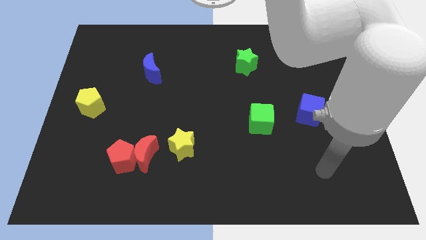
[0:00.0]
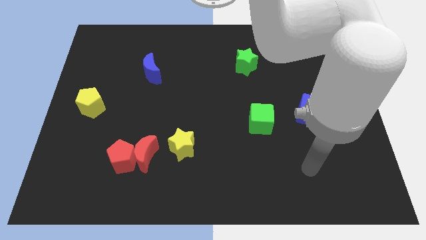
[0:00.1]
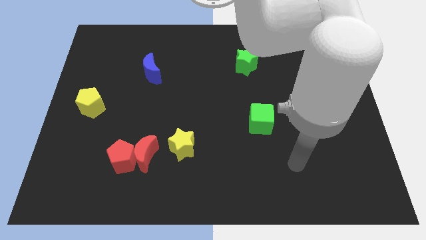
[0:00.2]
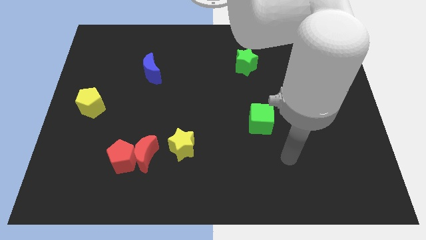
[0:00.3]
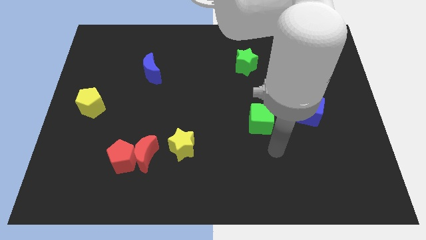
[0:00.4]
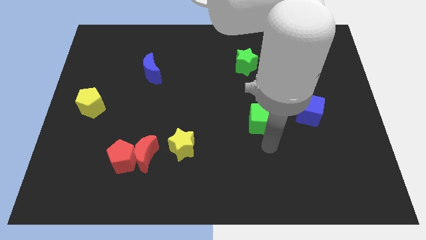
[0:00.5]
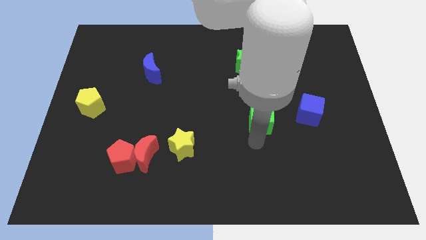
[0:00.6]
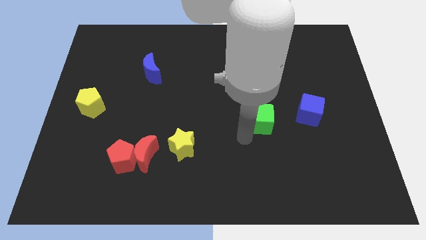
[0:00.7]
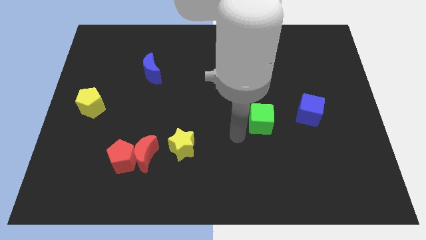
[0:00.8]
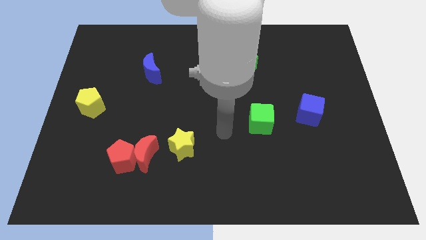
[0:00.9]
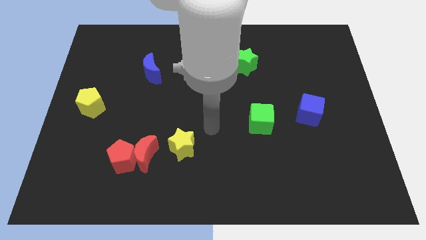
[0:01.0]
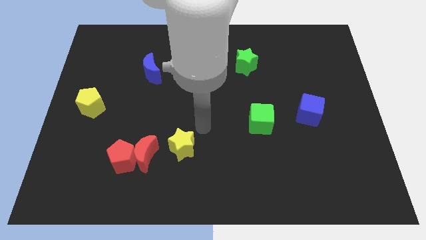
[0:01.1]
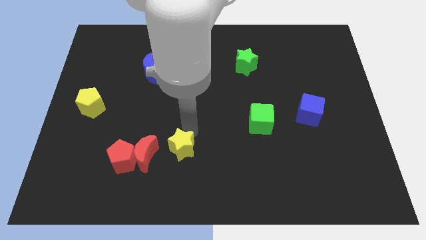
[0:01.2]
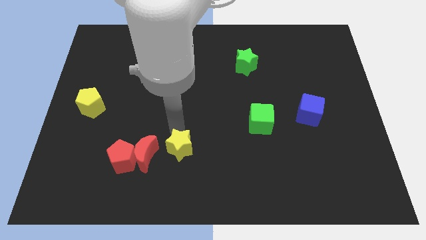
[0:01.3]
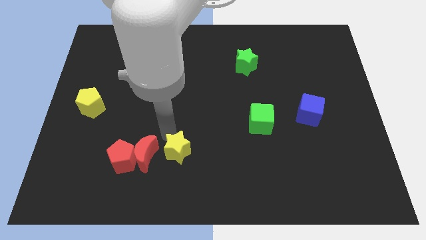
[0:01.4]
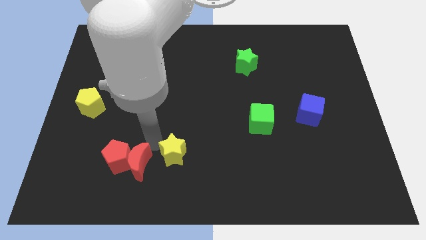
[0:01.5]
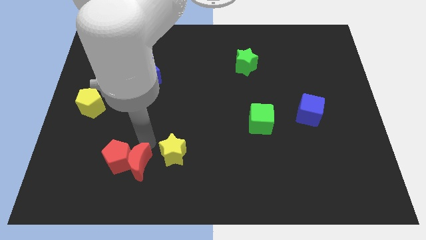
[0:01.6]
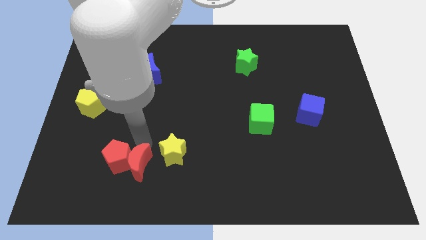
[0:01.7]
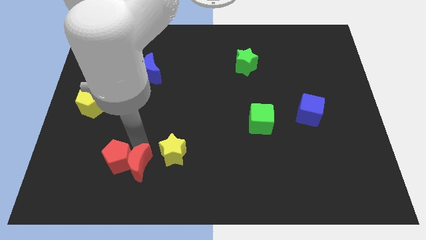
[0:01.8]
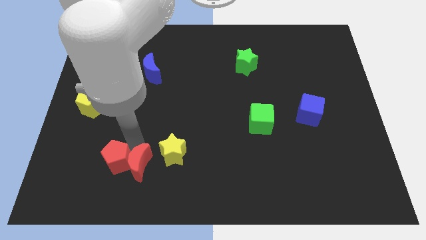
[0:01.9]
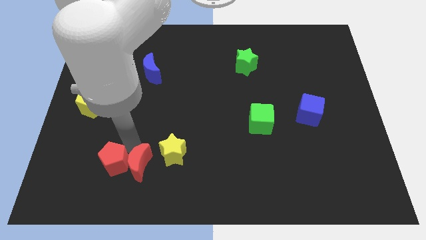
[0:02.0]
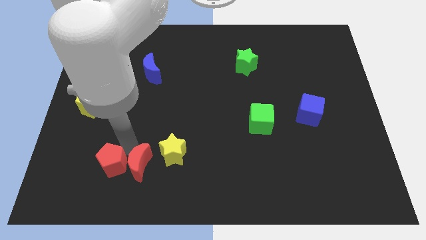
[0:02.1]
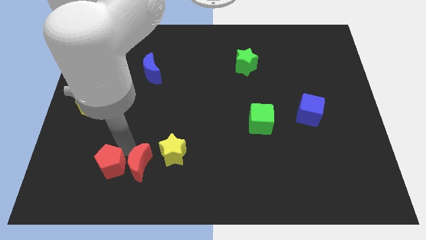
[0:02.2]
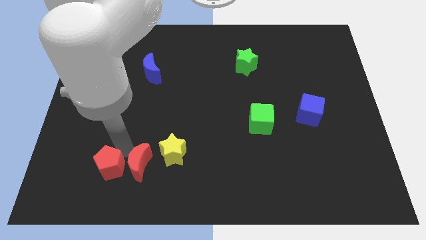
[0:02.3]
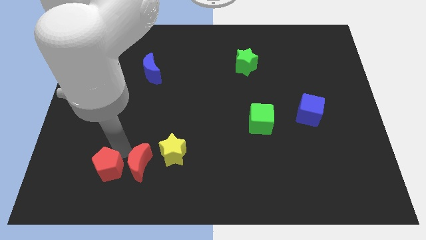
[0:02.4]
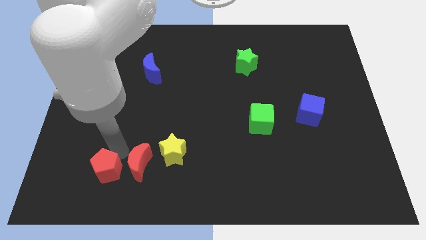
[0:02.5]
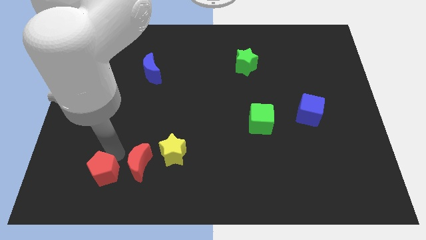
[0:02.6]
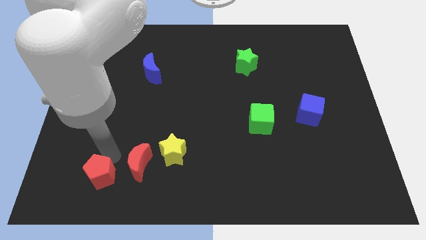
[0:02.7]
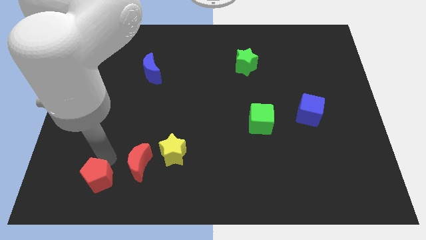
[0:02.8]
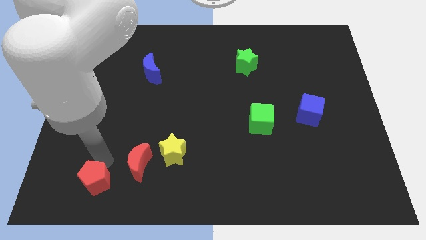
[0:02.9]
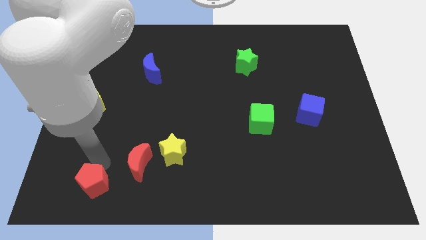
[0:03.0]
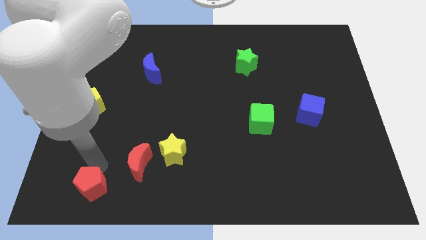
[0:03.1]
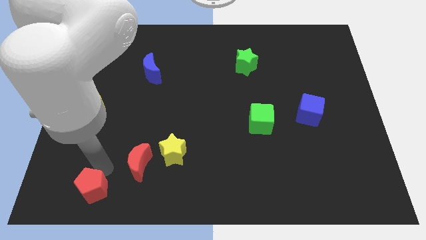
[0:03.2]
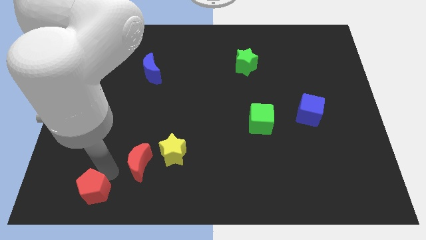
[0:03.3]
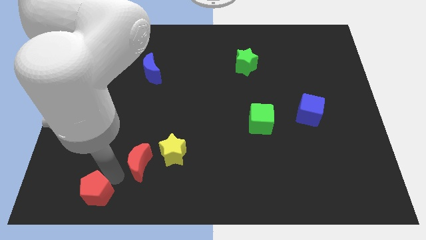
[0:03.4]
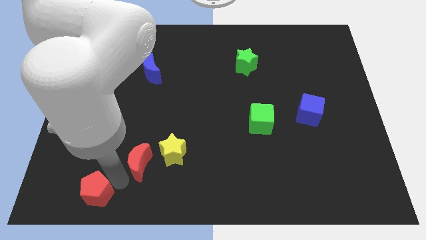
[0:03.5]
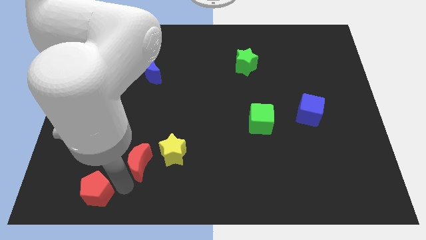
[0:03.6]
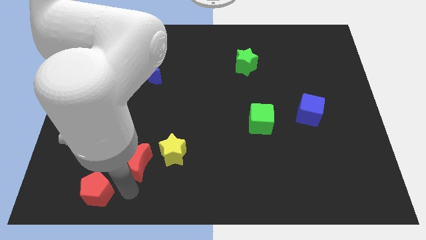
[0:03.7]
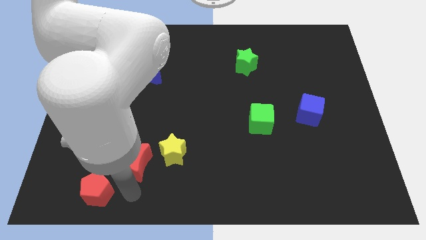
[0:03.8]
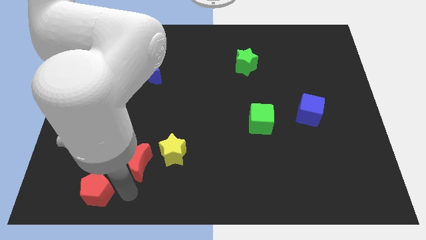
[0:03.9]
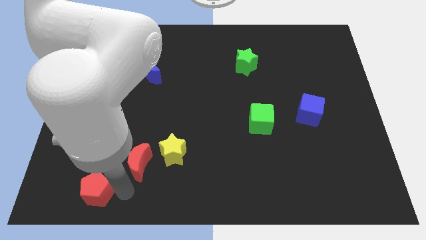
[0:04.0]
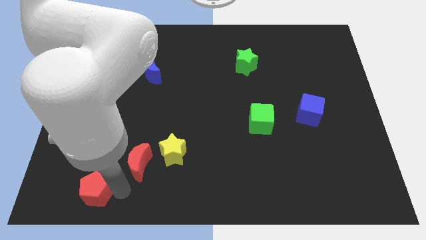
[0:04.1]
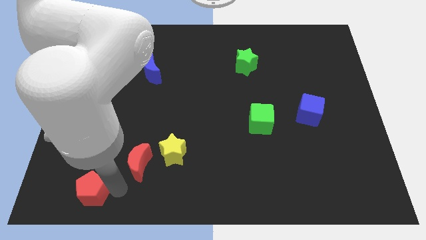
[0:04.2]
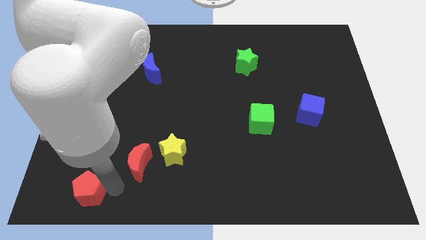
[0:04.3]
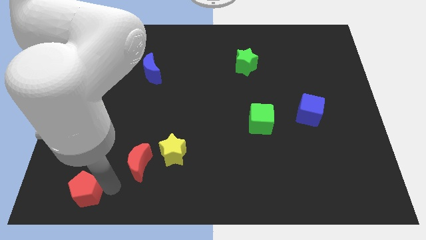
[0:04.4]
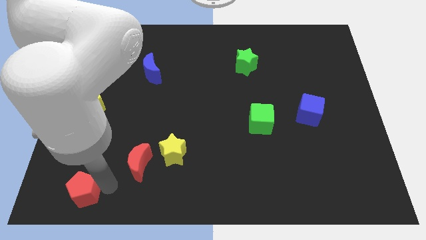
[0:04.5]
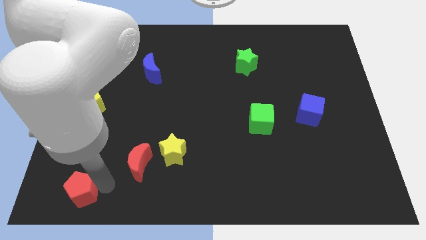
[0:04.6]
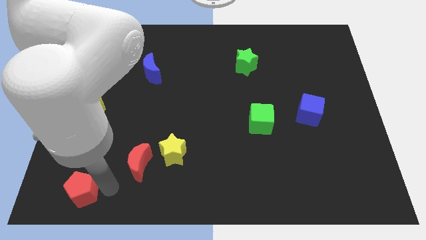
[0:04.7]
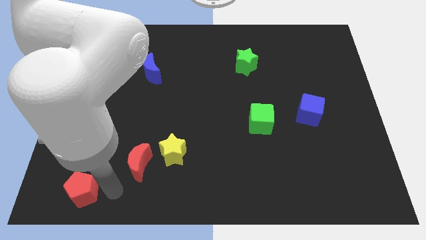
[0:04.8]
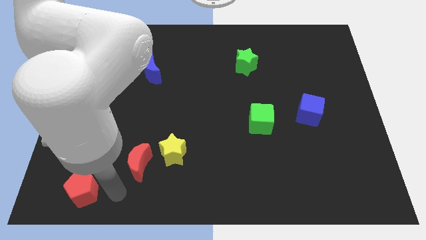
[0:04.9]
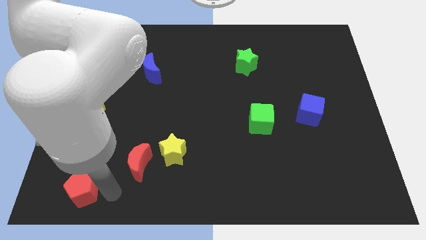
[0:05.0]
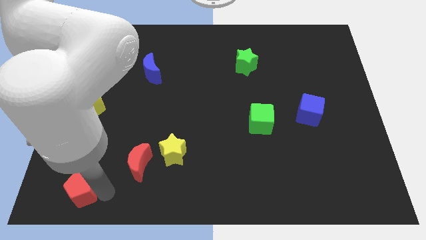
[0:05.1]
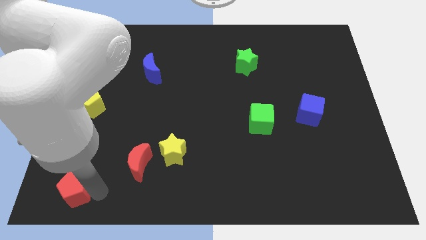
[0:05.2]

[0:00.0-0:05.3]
move the red pentagon to the lower left corner

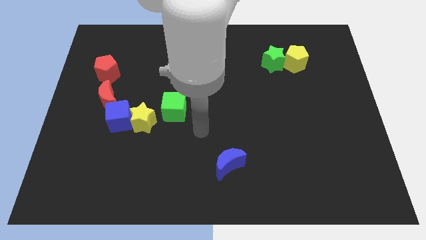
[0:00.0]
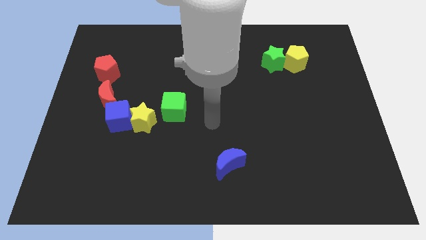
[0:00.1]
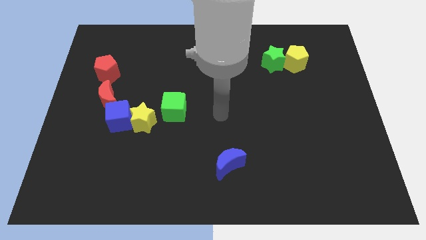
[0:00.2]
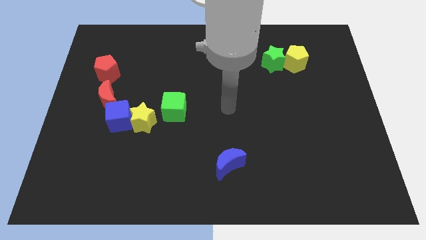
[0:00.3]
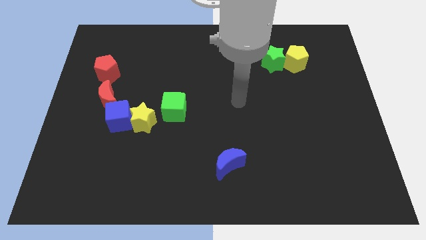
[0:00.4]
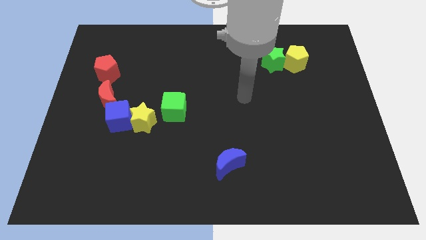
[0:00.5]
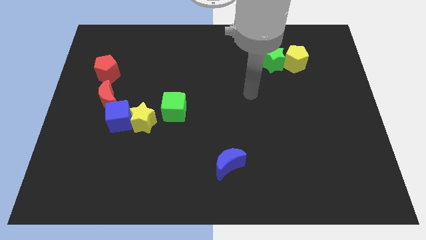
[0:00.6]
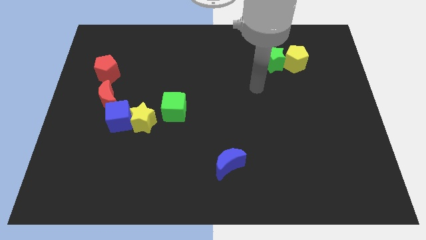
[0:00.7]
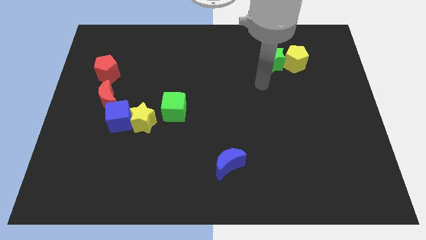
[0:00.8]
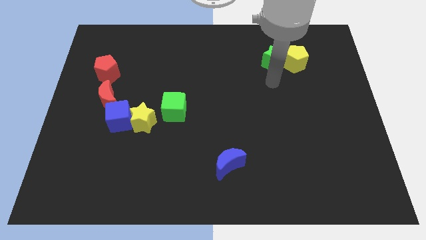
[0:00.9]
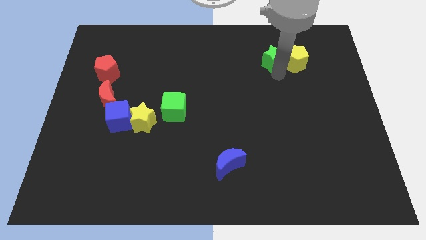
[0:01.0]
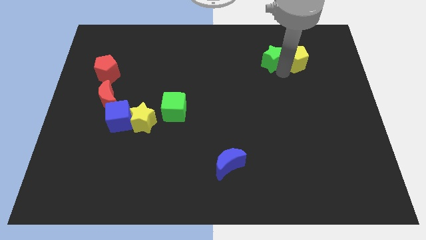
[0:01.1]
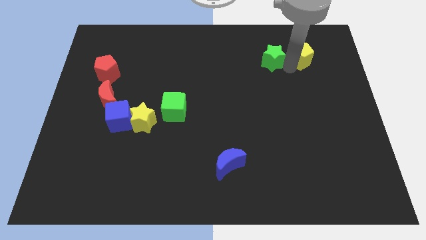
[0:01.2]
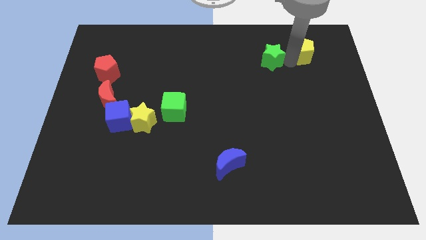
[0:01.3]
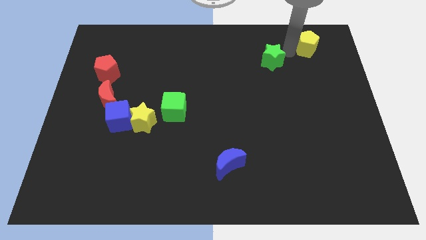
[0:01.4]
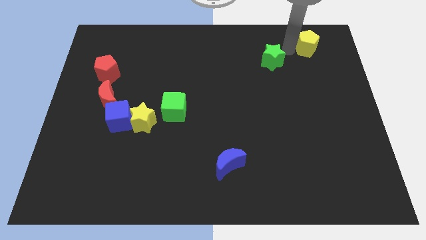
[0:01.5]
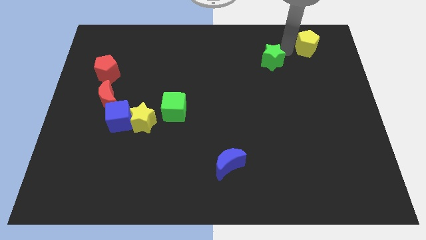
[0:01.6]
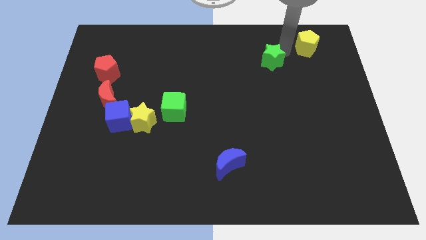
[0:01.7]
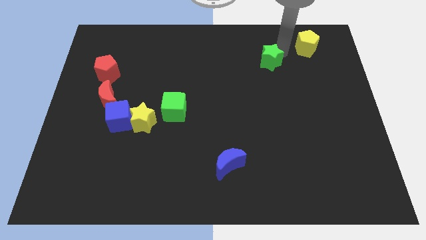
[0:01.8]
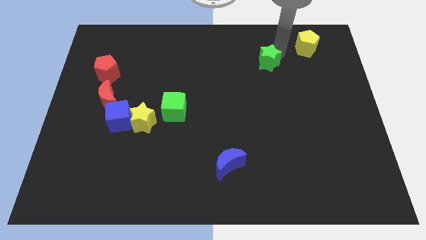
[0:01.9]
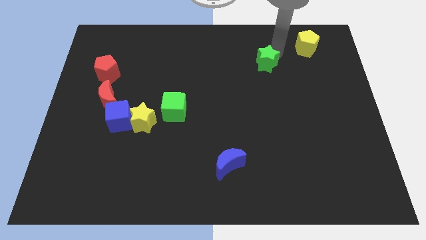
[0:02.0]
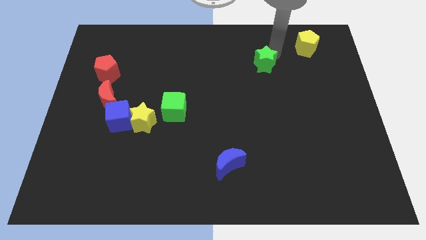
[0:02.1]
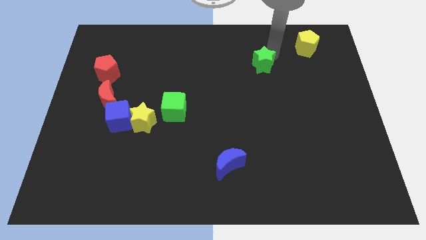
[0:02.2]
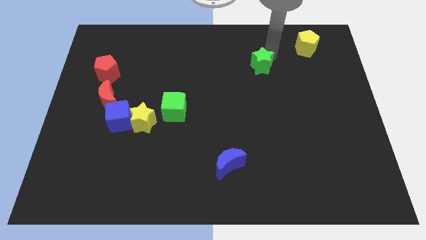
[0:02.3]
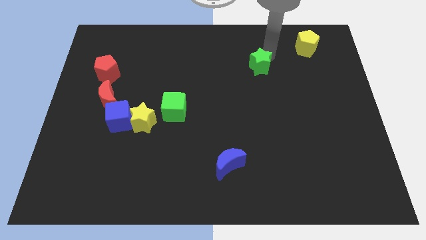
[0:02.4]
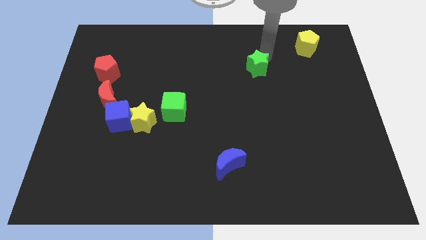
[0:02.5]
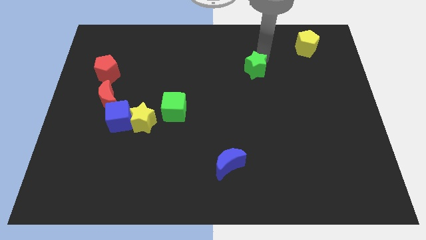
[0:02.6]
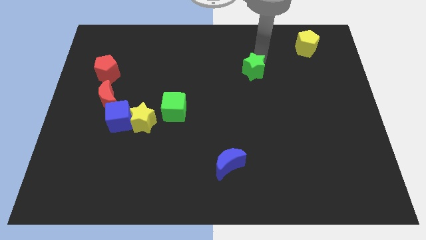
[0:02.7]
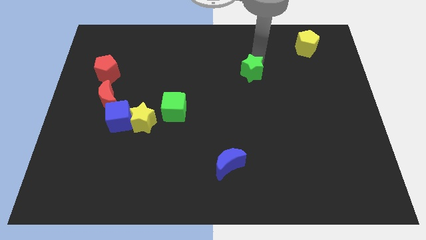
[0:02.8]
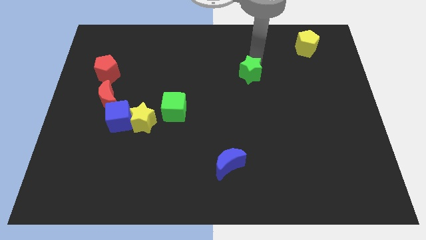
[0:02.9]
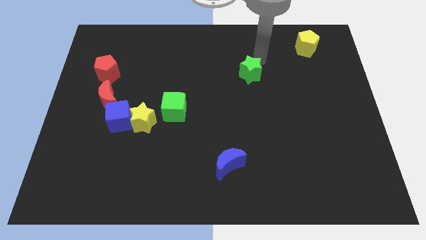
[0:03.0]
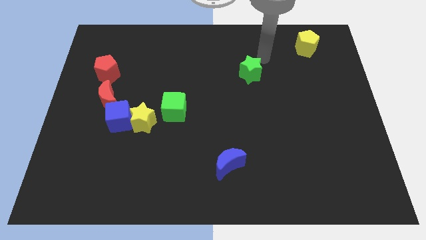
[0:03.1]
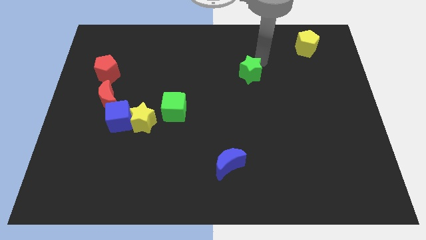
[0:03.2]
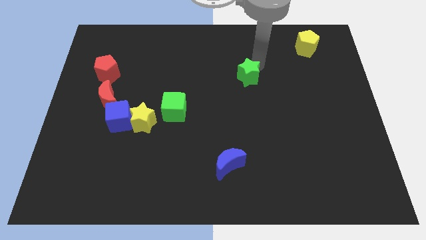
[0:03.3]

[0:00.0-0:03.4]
put the green star to the middle of the board
